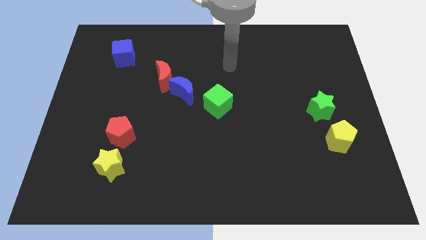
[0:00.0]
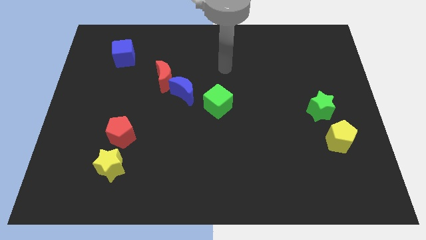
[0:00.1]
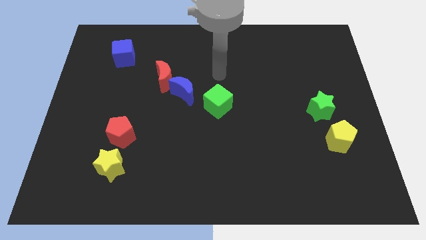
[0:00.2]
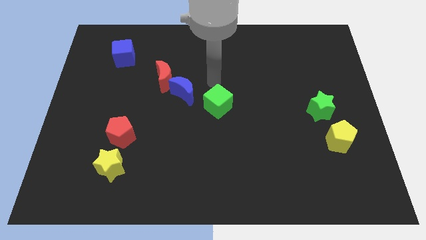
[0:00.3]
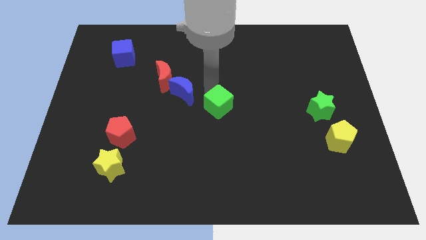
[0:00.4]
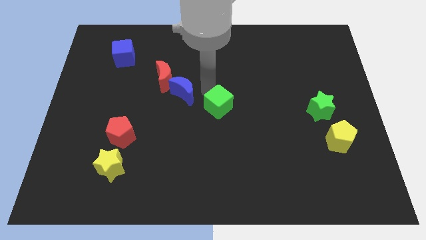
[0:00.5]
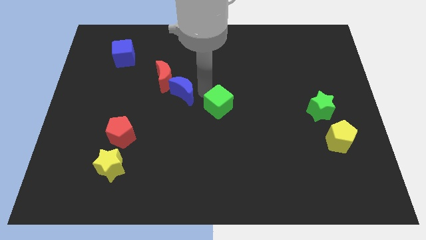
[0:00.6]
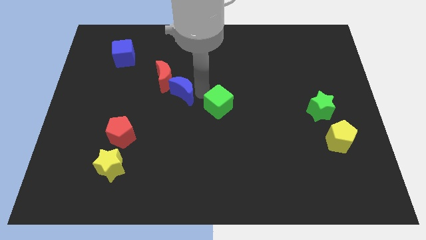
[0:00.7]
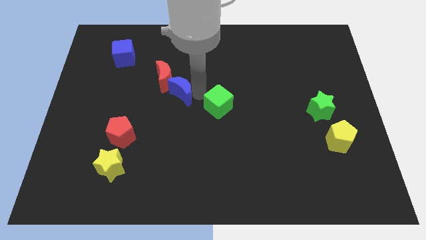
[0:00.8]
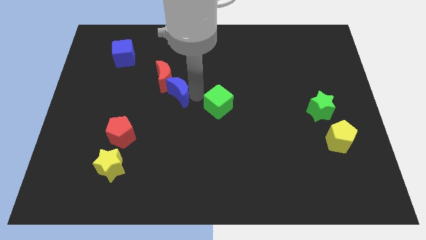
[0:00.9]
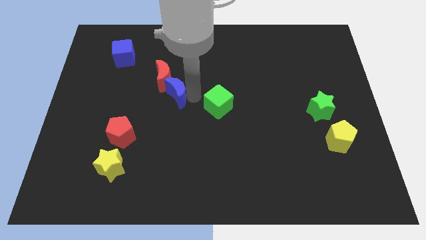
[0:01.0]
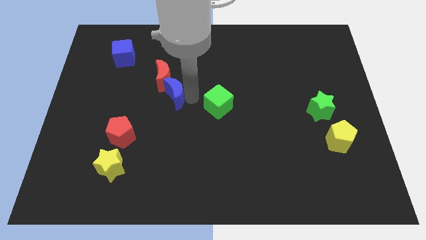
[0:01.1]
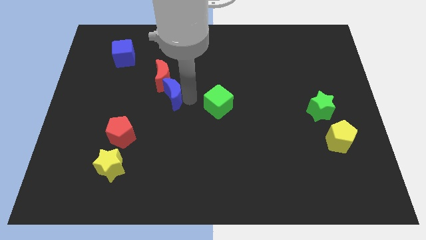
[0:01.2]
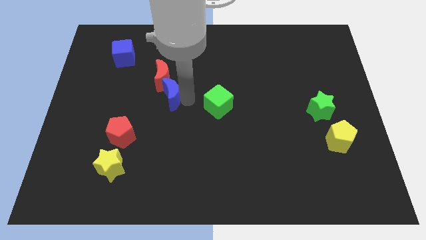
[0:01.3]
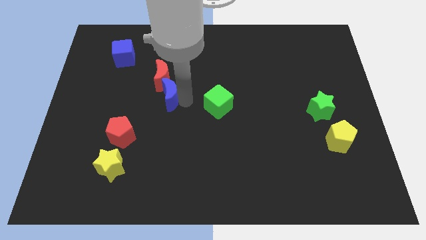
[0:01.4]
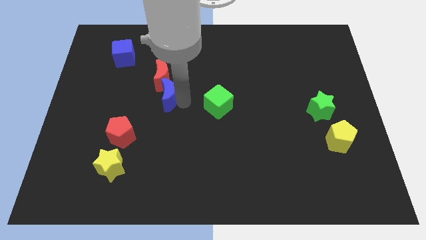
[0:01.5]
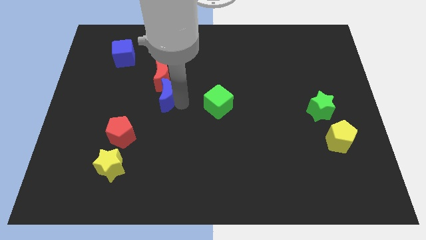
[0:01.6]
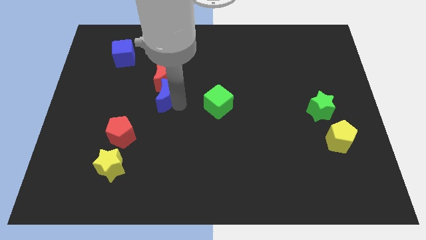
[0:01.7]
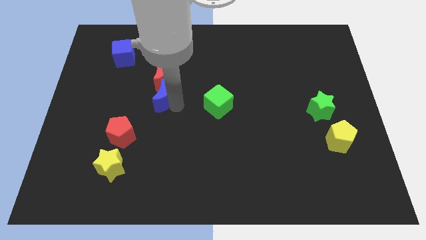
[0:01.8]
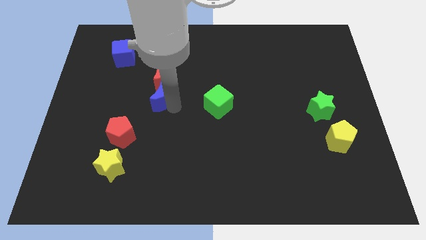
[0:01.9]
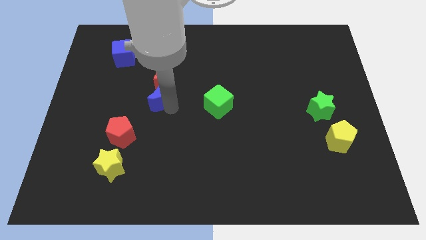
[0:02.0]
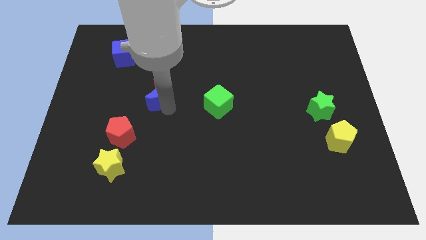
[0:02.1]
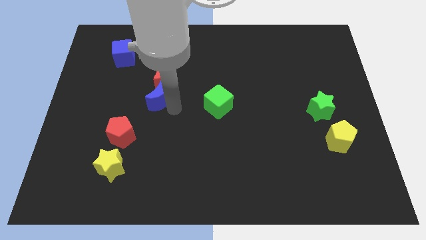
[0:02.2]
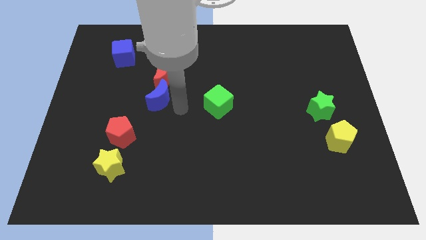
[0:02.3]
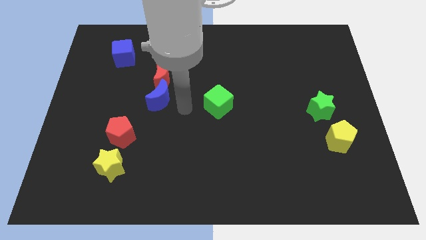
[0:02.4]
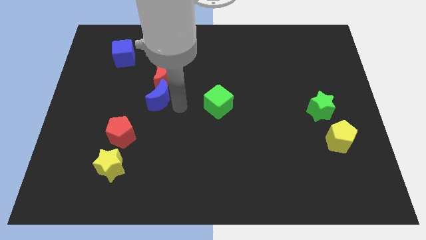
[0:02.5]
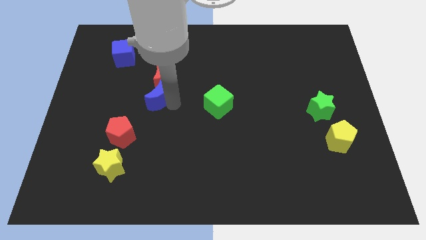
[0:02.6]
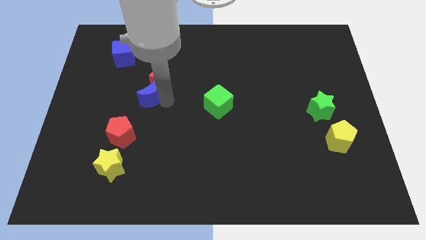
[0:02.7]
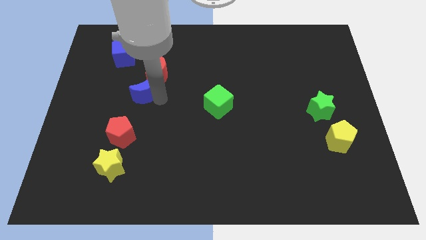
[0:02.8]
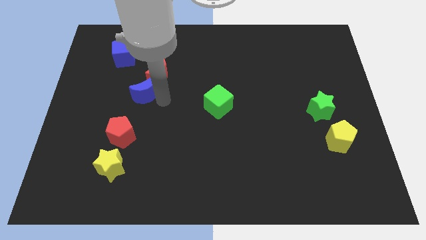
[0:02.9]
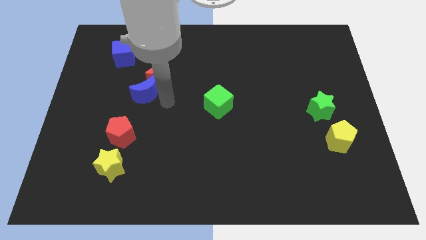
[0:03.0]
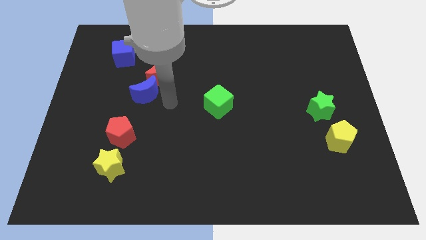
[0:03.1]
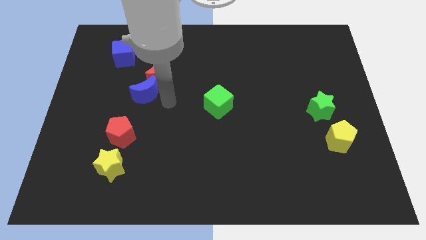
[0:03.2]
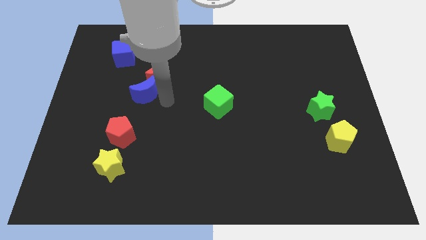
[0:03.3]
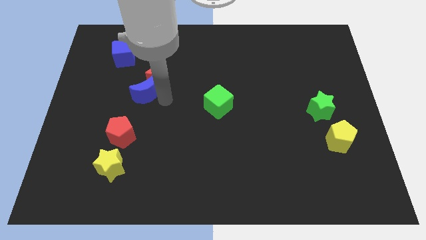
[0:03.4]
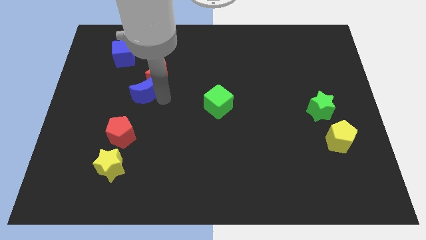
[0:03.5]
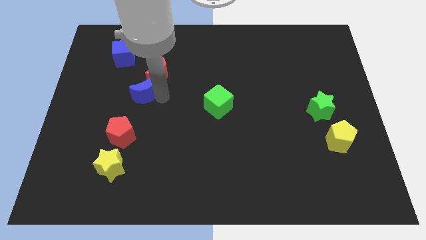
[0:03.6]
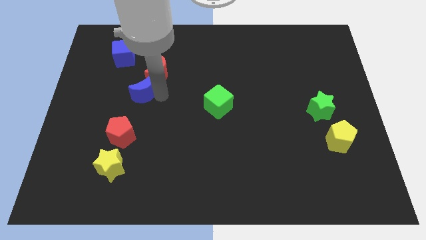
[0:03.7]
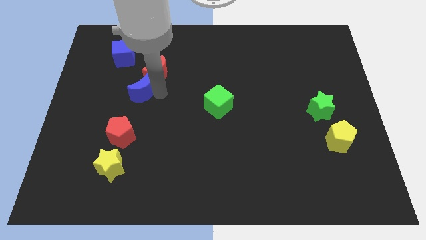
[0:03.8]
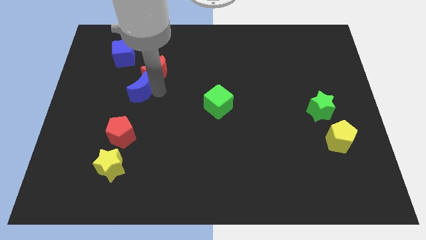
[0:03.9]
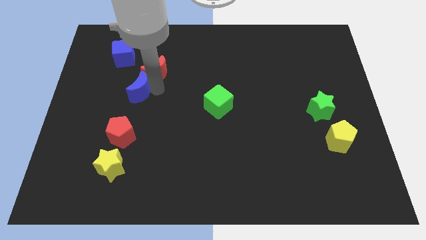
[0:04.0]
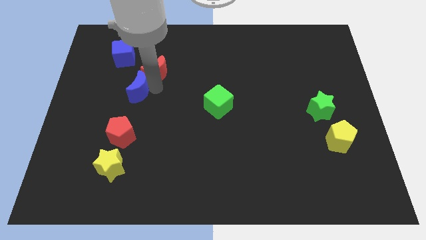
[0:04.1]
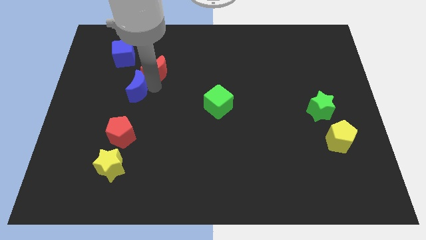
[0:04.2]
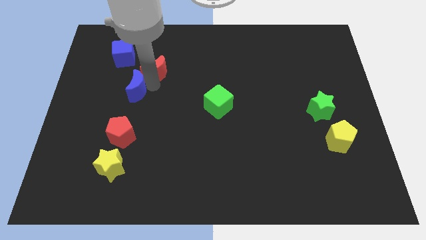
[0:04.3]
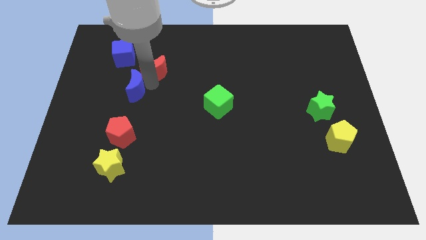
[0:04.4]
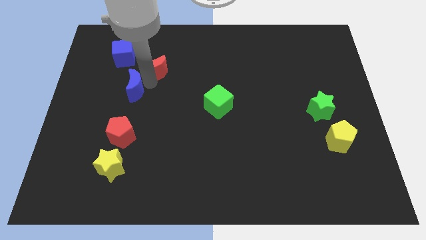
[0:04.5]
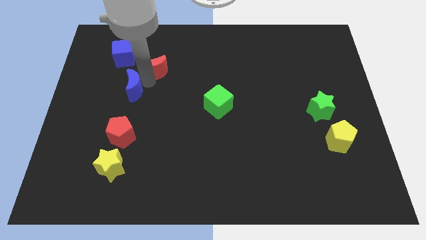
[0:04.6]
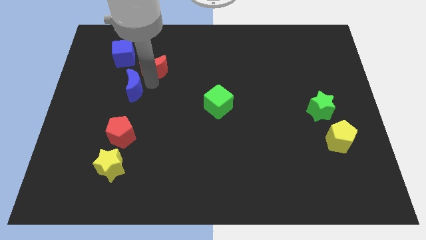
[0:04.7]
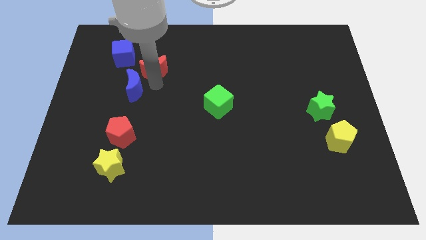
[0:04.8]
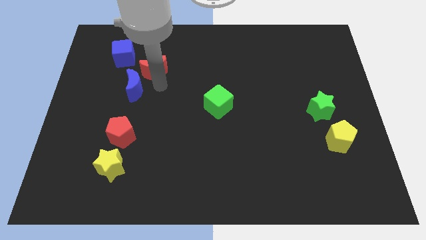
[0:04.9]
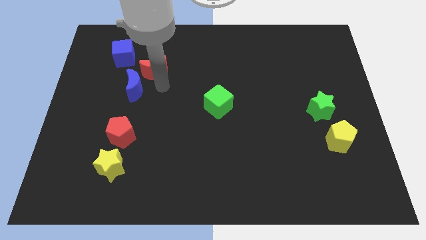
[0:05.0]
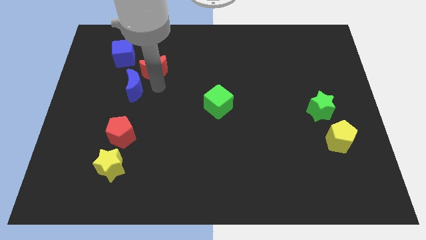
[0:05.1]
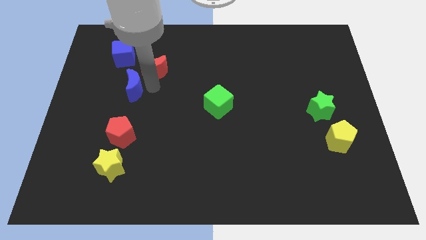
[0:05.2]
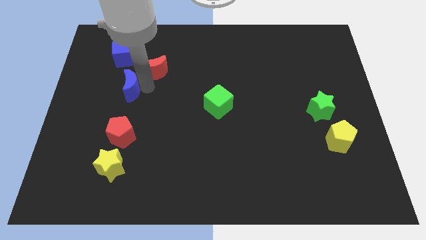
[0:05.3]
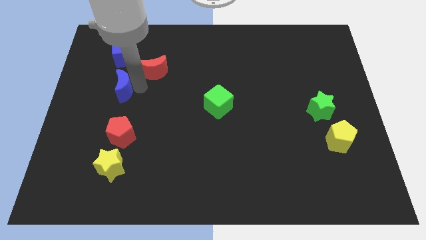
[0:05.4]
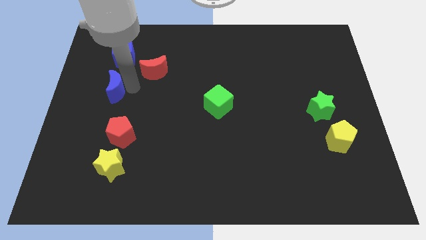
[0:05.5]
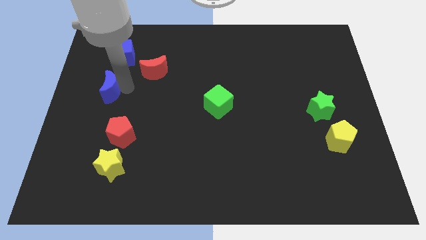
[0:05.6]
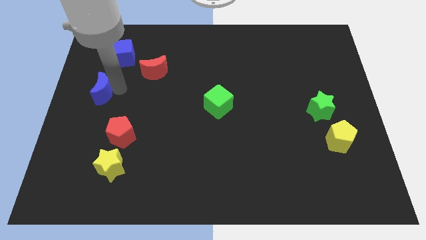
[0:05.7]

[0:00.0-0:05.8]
push the blue moon to the left side of the board

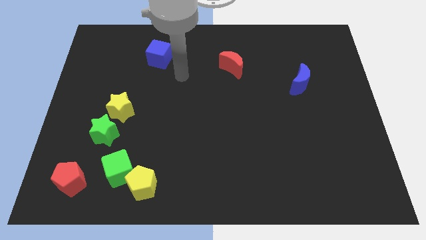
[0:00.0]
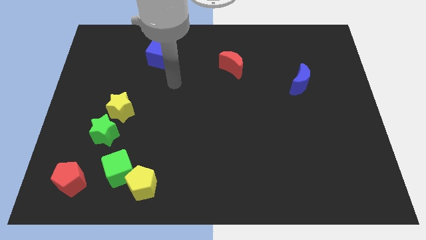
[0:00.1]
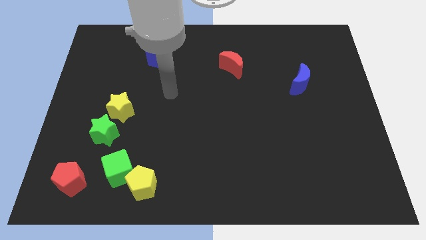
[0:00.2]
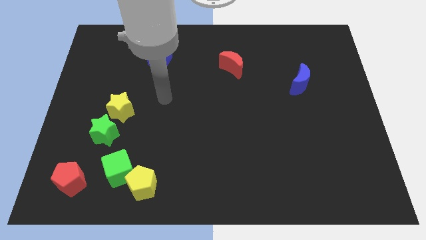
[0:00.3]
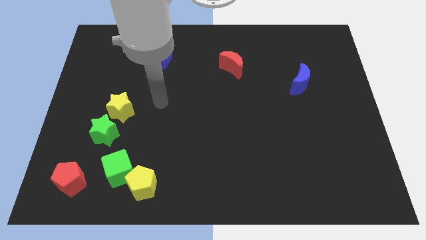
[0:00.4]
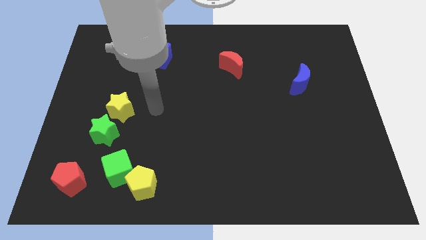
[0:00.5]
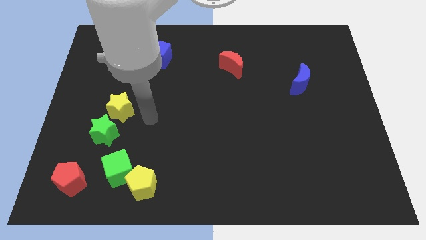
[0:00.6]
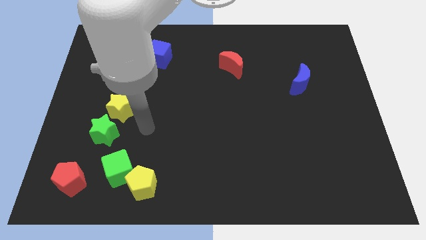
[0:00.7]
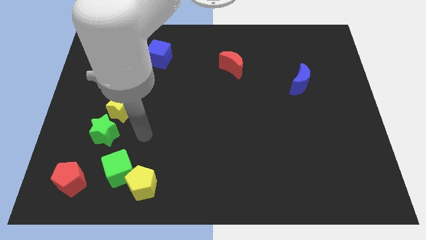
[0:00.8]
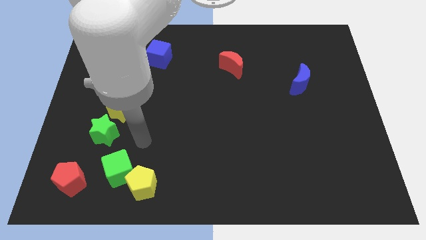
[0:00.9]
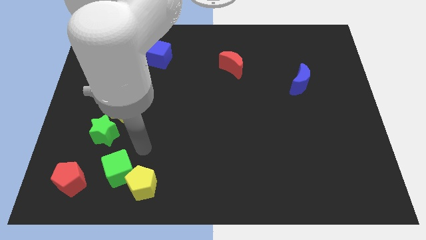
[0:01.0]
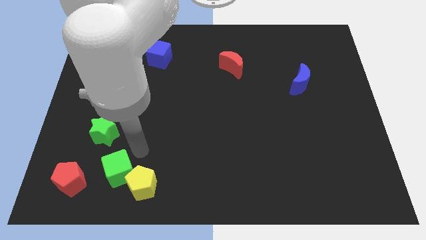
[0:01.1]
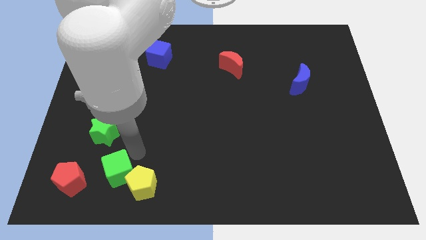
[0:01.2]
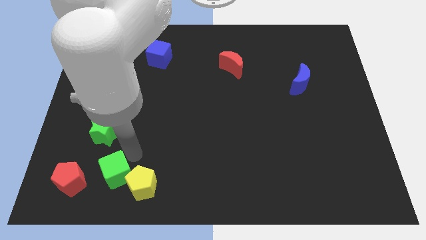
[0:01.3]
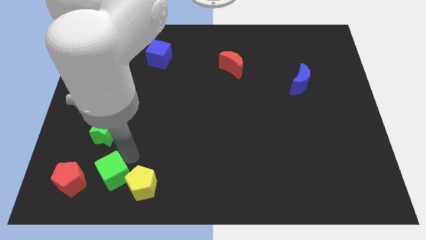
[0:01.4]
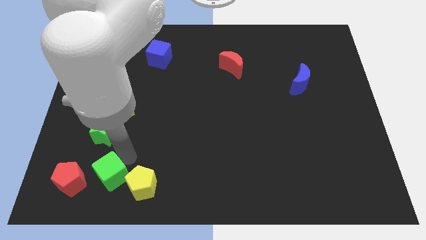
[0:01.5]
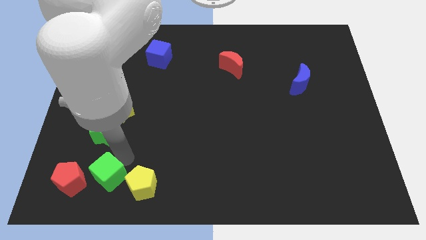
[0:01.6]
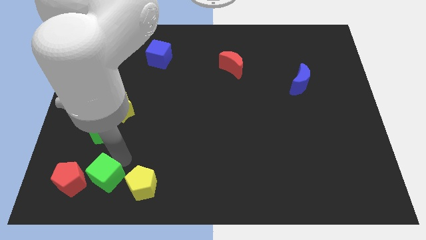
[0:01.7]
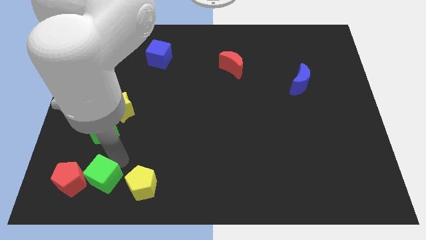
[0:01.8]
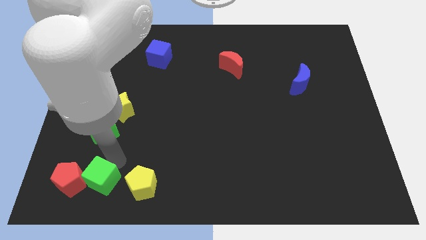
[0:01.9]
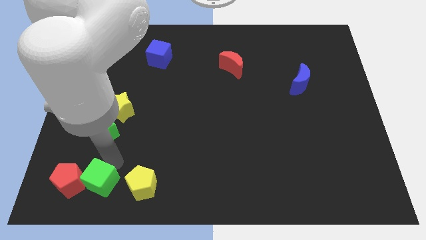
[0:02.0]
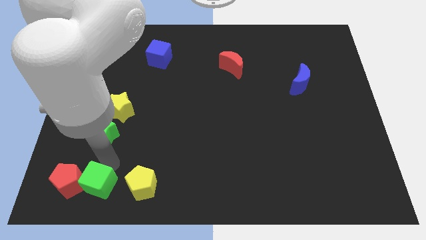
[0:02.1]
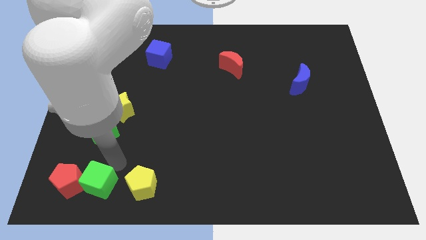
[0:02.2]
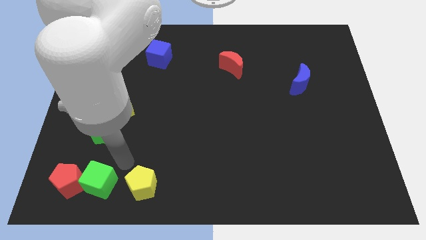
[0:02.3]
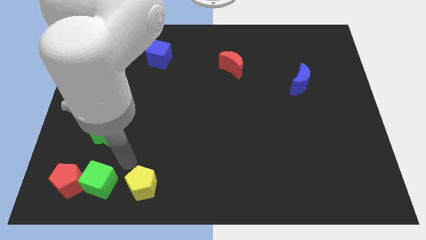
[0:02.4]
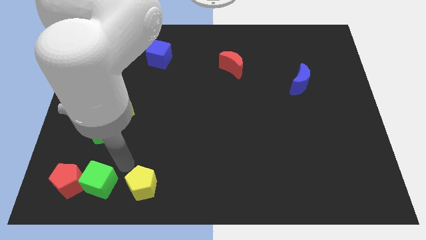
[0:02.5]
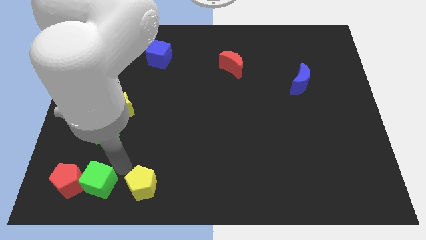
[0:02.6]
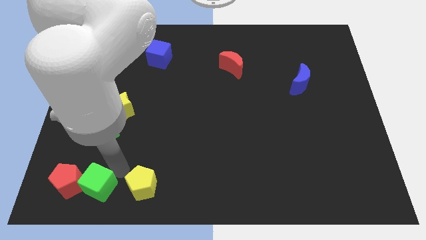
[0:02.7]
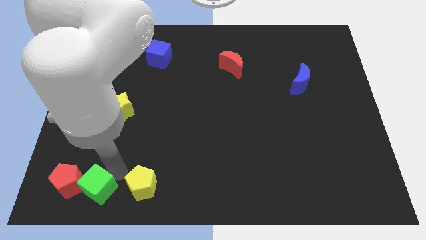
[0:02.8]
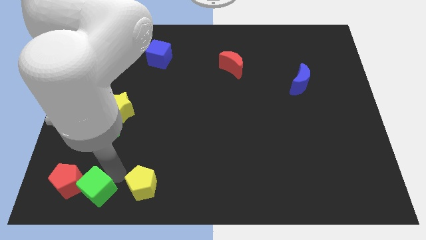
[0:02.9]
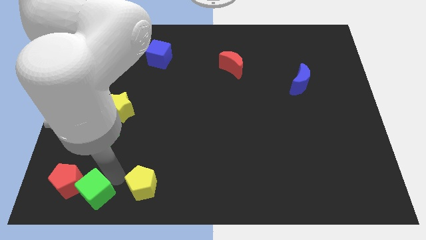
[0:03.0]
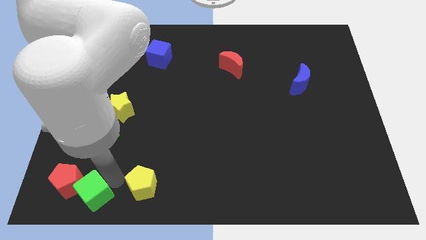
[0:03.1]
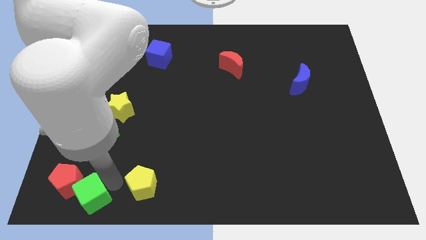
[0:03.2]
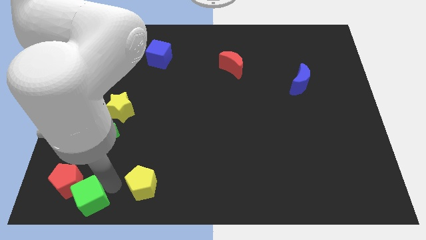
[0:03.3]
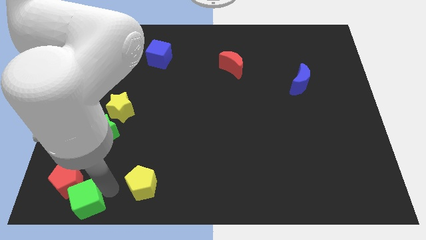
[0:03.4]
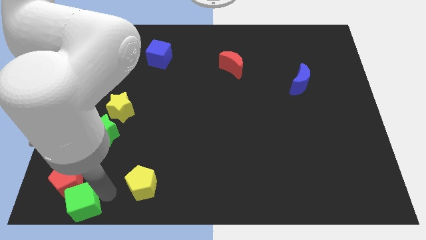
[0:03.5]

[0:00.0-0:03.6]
move the green cube to the bottom left of the board
